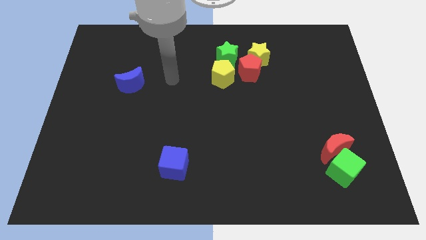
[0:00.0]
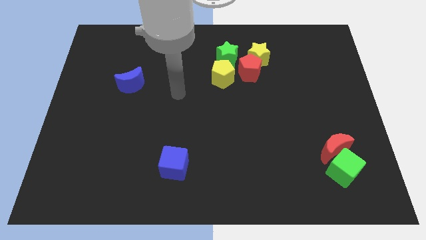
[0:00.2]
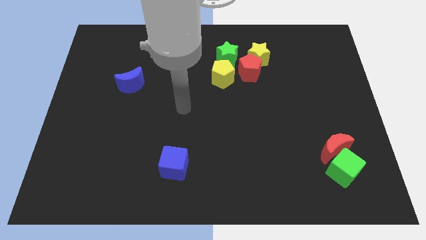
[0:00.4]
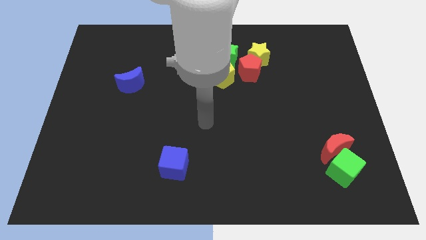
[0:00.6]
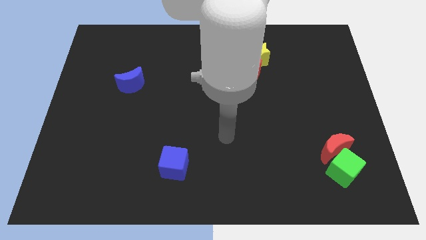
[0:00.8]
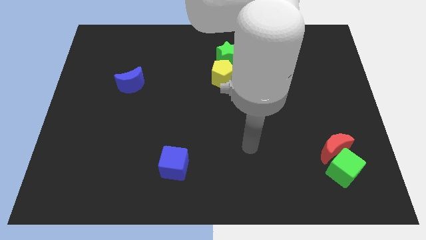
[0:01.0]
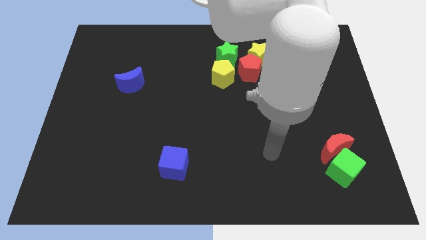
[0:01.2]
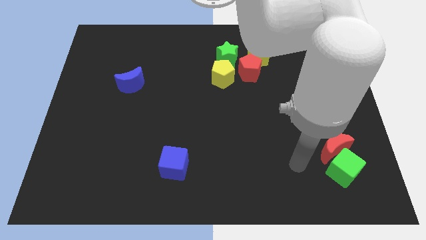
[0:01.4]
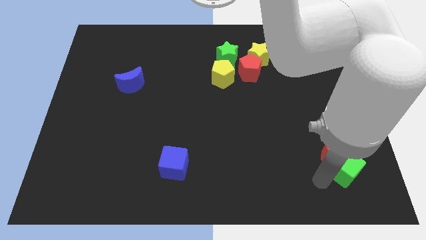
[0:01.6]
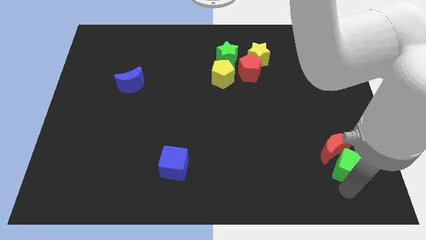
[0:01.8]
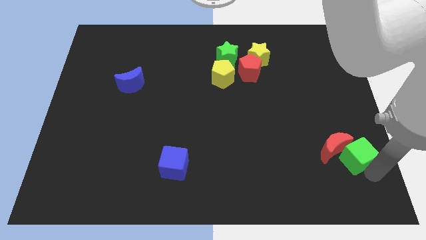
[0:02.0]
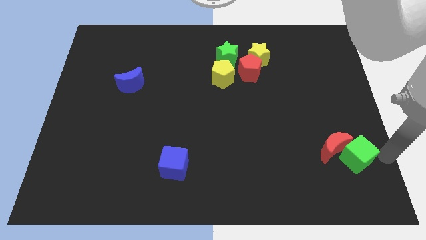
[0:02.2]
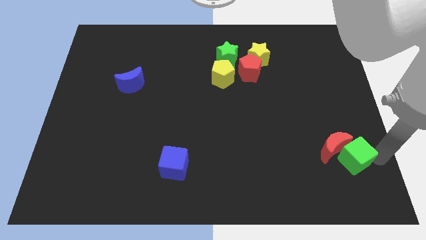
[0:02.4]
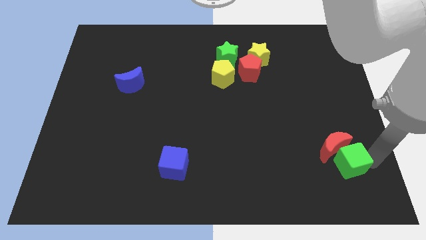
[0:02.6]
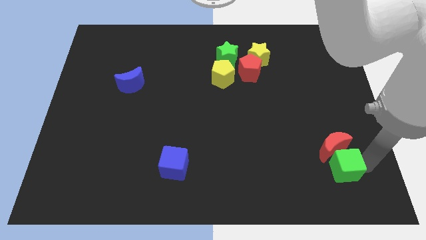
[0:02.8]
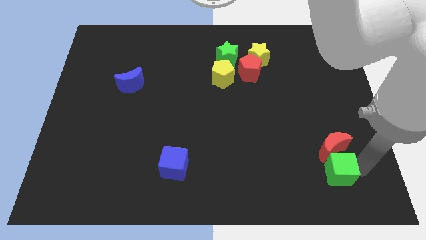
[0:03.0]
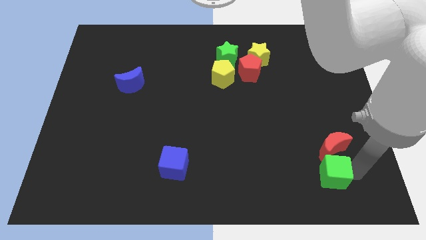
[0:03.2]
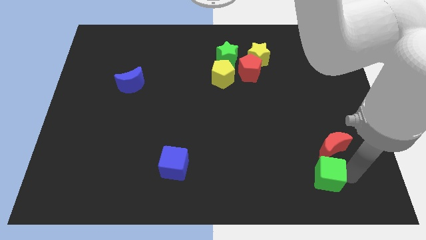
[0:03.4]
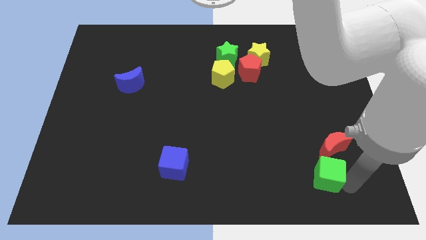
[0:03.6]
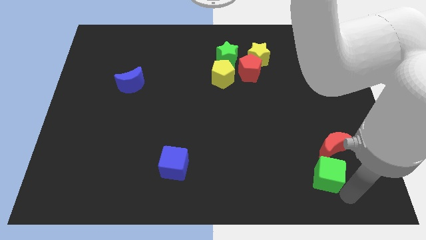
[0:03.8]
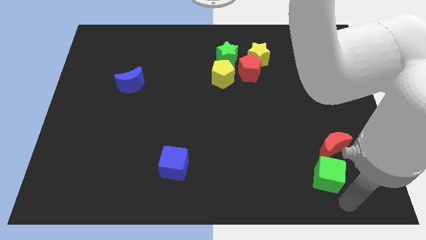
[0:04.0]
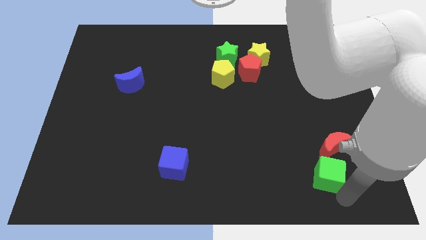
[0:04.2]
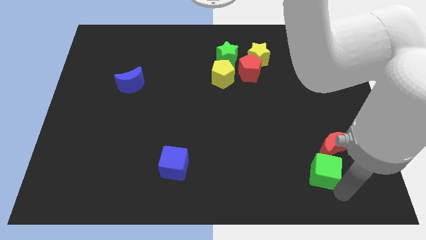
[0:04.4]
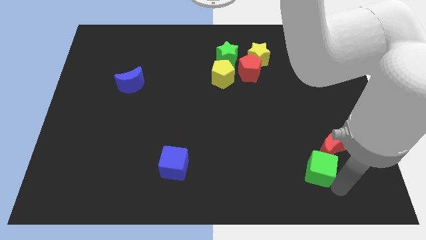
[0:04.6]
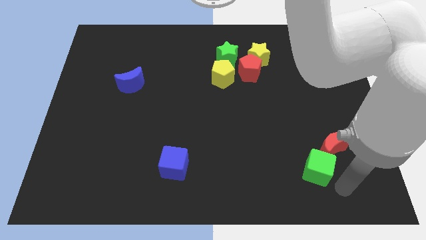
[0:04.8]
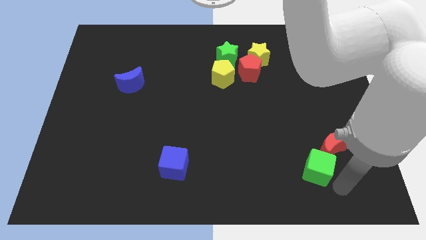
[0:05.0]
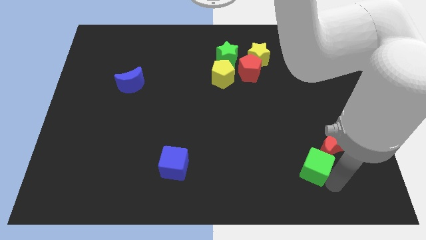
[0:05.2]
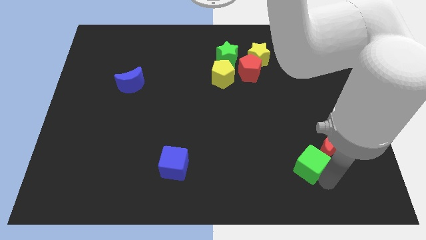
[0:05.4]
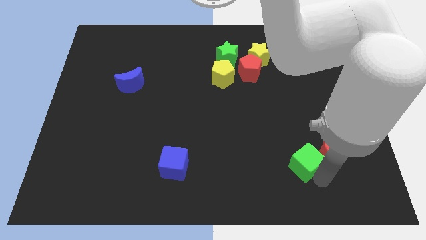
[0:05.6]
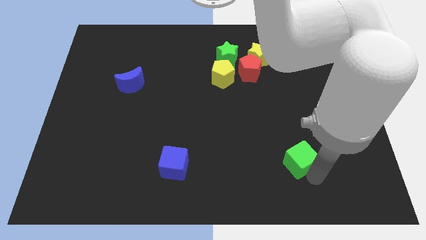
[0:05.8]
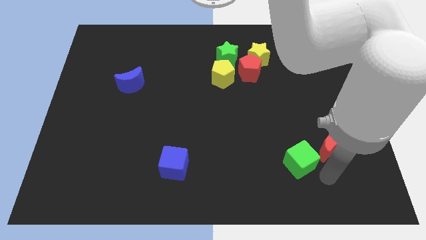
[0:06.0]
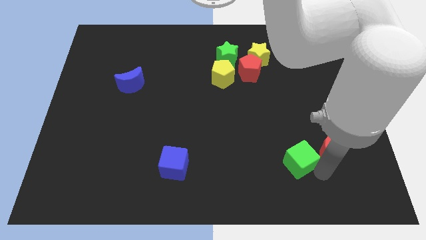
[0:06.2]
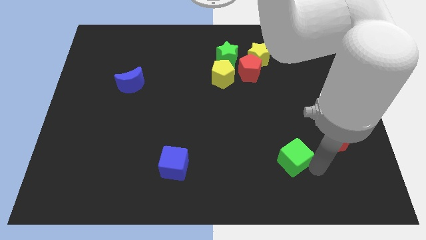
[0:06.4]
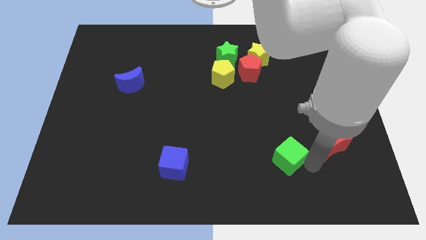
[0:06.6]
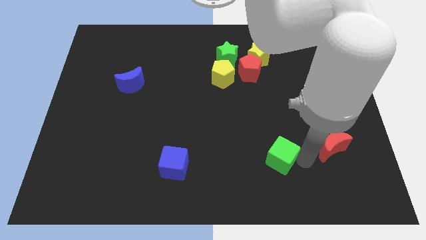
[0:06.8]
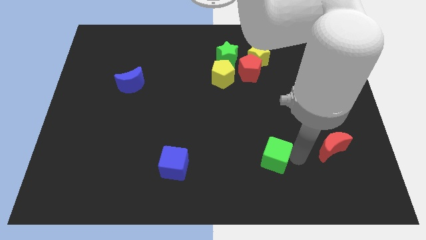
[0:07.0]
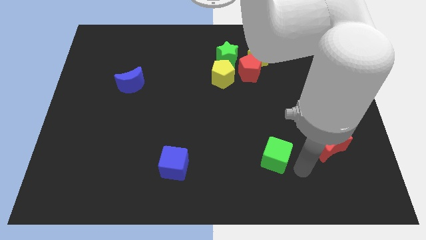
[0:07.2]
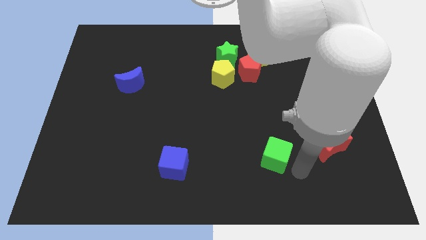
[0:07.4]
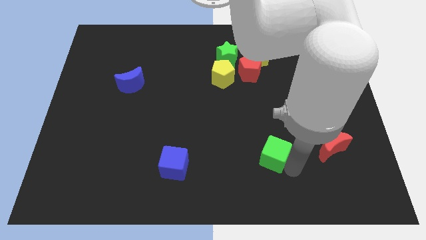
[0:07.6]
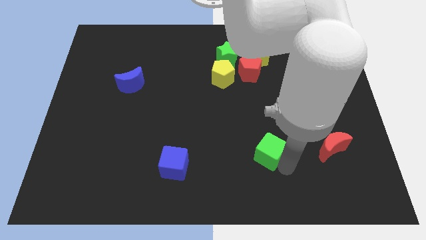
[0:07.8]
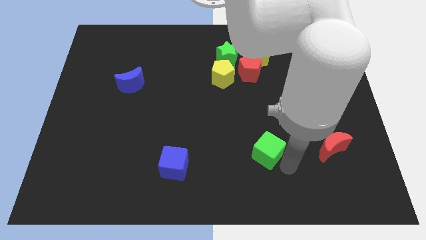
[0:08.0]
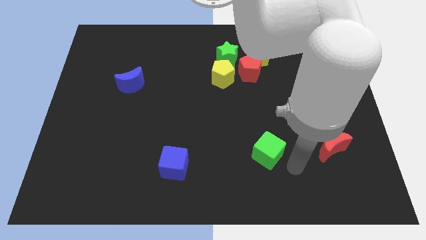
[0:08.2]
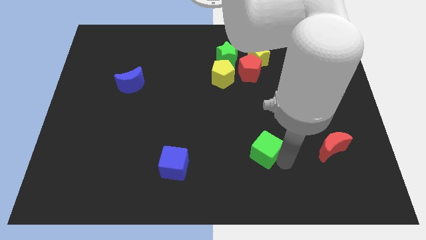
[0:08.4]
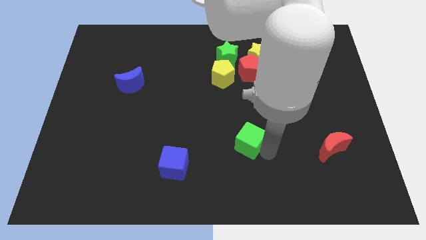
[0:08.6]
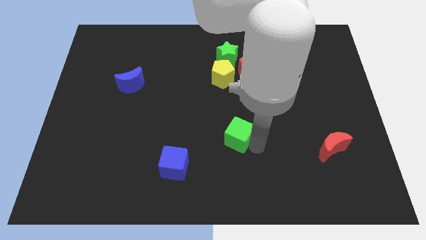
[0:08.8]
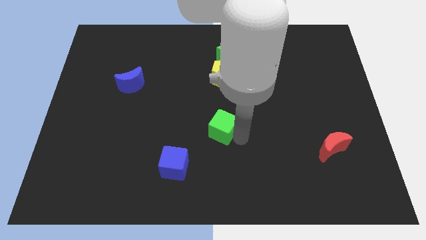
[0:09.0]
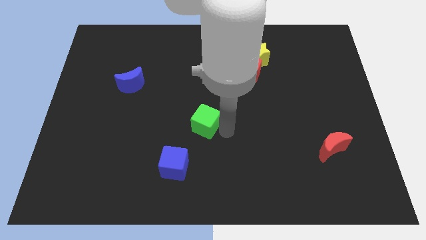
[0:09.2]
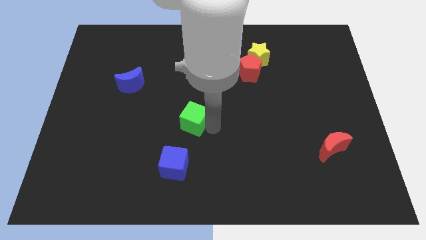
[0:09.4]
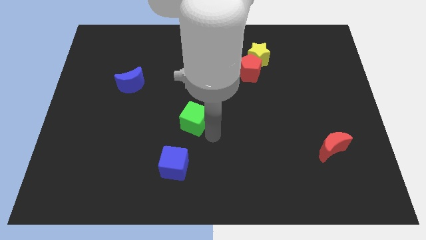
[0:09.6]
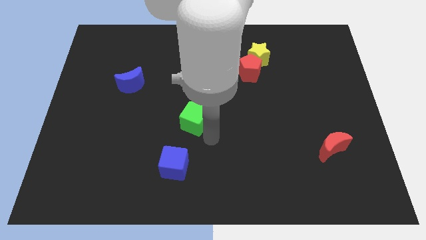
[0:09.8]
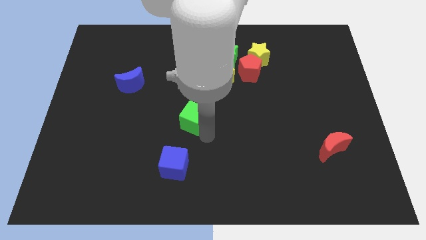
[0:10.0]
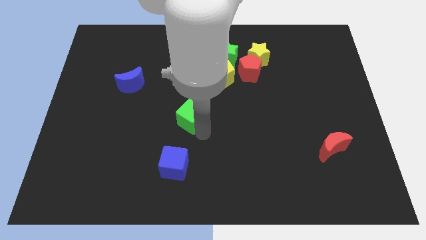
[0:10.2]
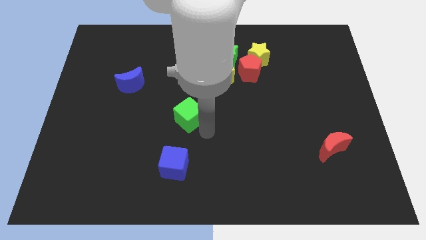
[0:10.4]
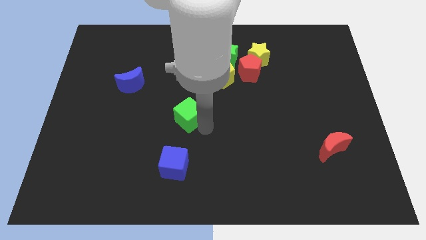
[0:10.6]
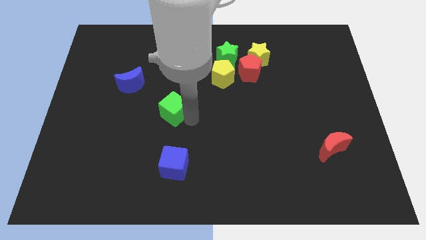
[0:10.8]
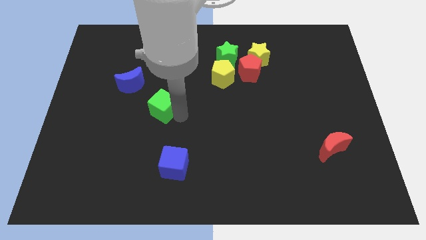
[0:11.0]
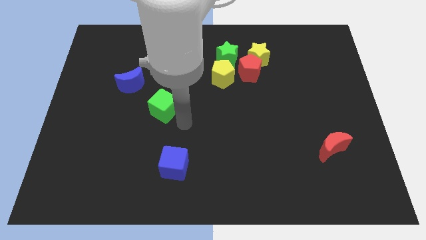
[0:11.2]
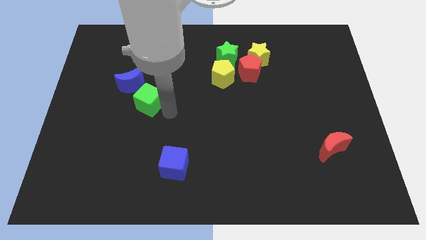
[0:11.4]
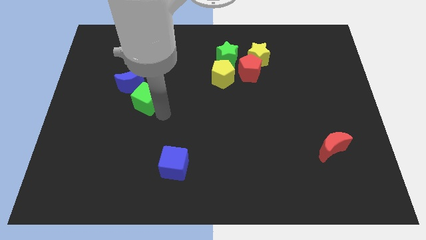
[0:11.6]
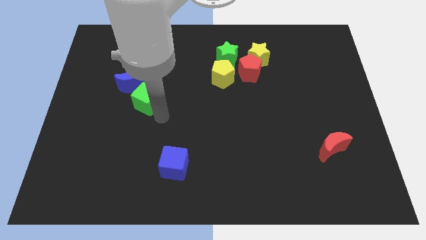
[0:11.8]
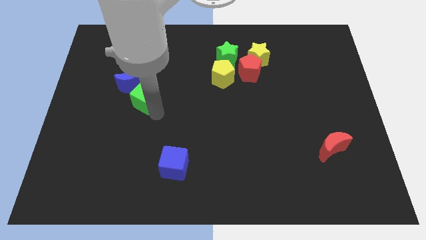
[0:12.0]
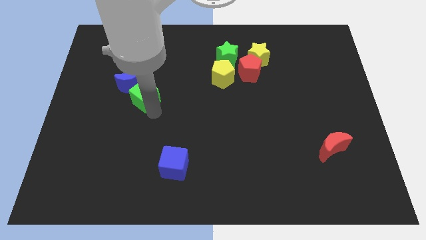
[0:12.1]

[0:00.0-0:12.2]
move the green cube to the blue moon

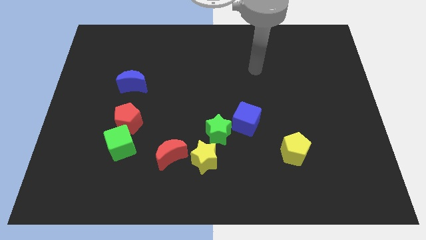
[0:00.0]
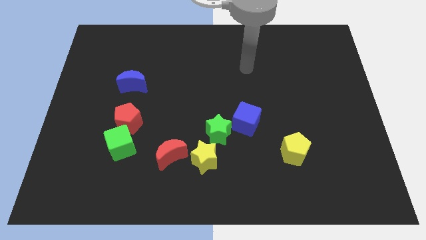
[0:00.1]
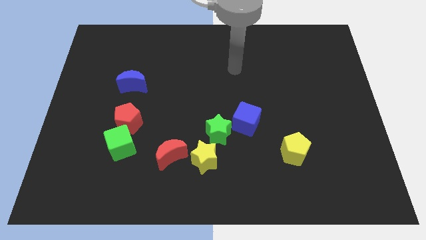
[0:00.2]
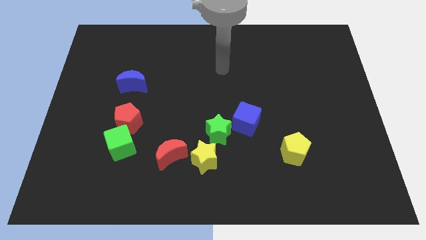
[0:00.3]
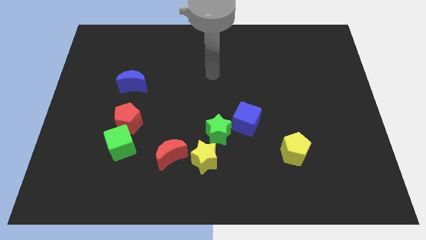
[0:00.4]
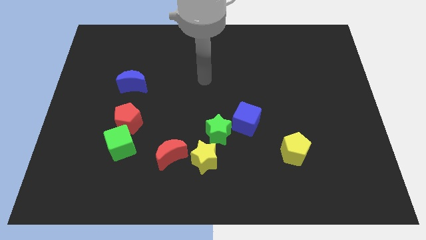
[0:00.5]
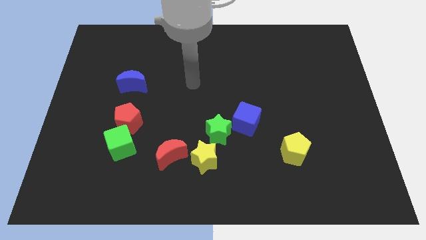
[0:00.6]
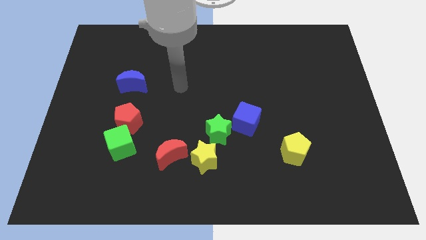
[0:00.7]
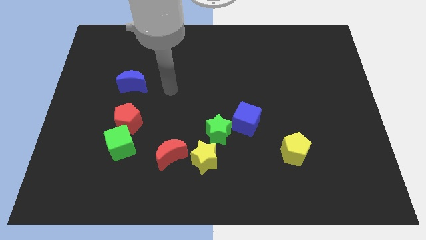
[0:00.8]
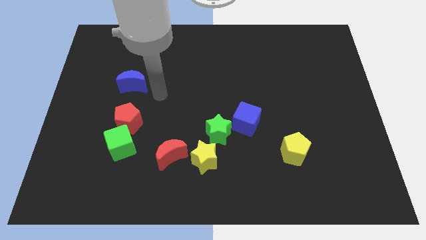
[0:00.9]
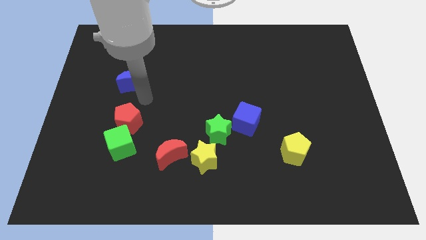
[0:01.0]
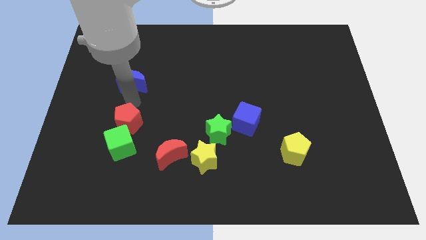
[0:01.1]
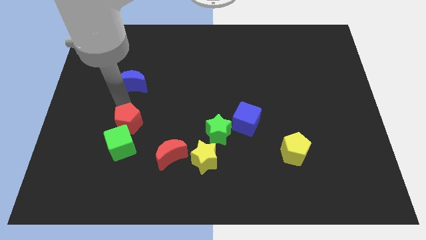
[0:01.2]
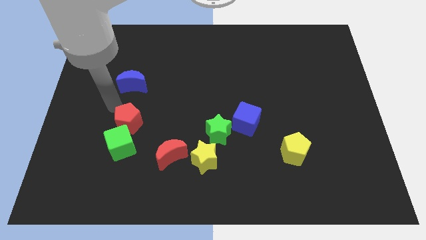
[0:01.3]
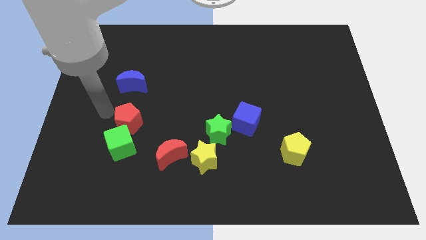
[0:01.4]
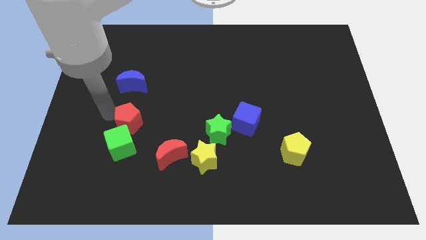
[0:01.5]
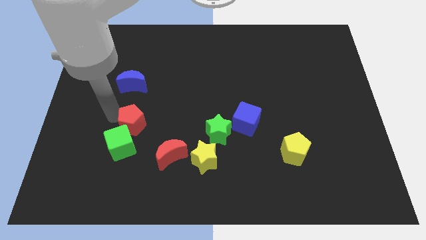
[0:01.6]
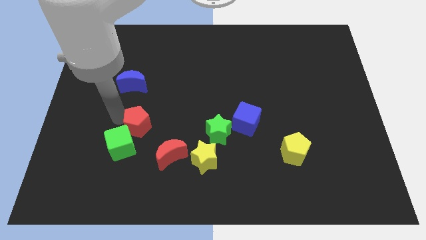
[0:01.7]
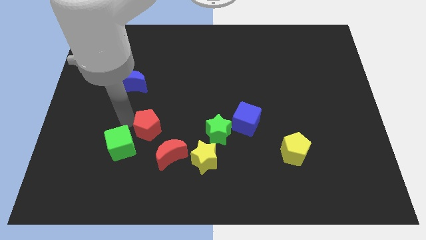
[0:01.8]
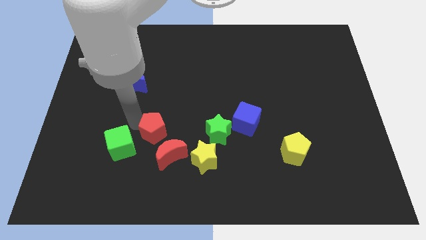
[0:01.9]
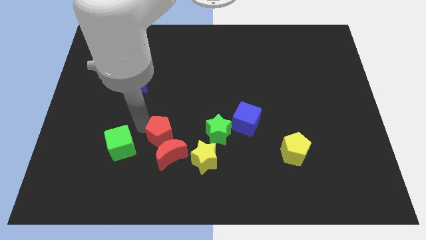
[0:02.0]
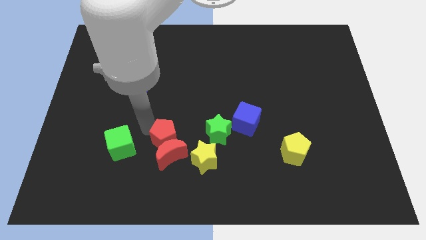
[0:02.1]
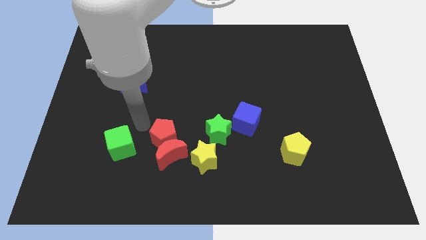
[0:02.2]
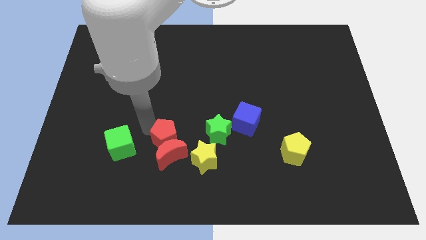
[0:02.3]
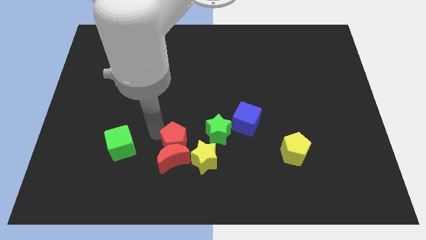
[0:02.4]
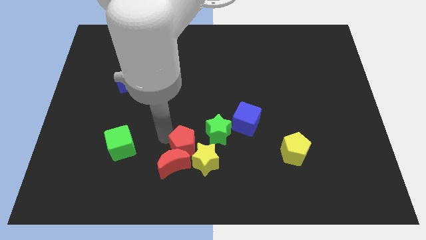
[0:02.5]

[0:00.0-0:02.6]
push the red pentagon close to the yellow star
